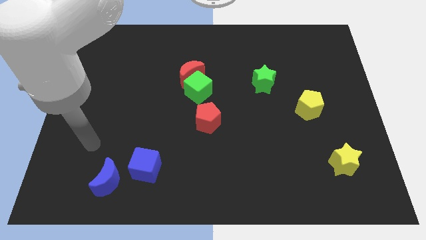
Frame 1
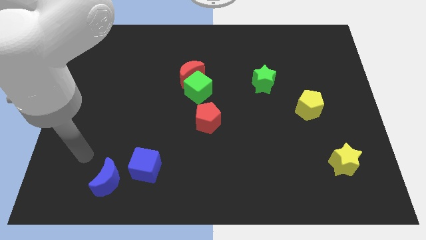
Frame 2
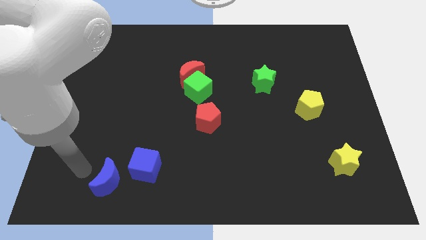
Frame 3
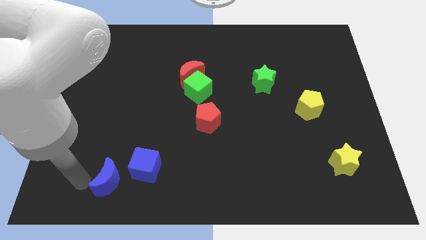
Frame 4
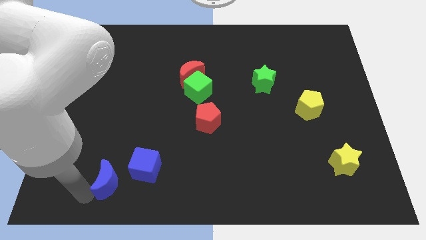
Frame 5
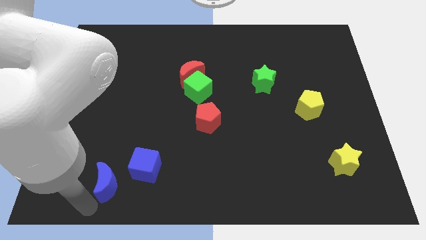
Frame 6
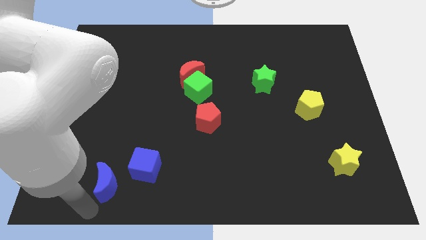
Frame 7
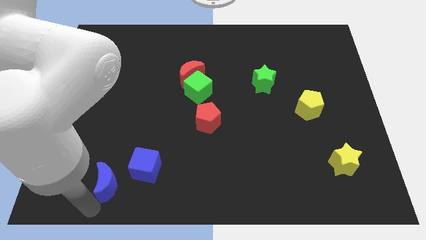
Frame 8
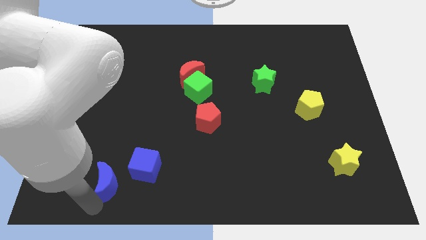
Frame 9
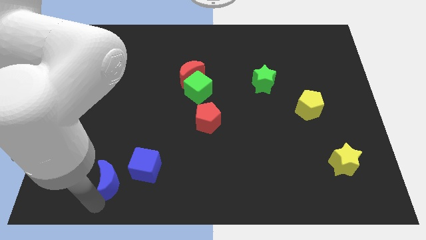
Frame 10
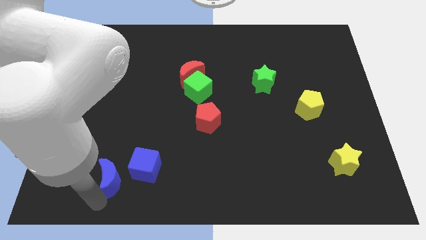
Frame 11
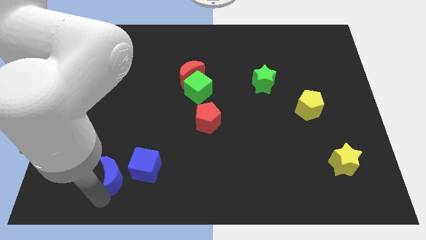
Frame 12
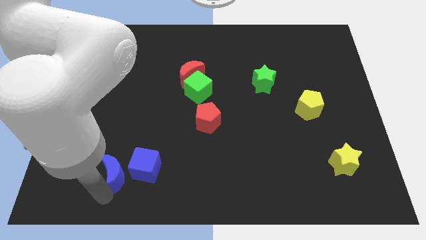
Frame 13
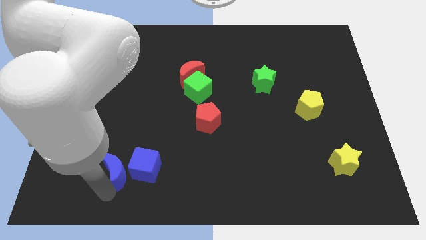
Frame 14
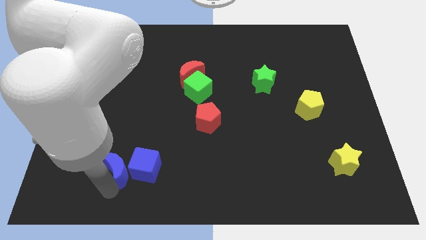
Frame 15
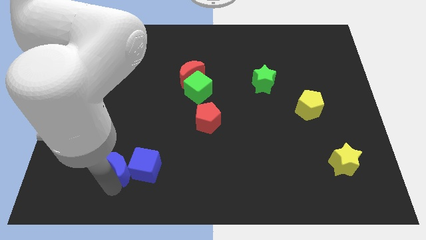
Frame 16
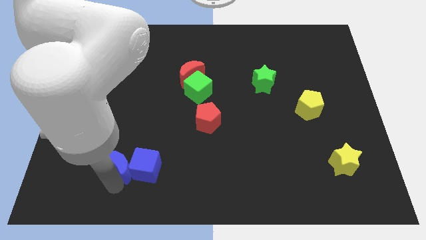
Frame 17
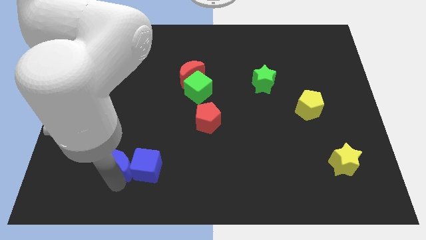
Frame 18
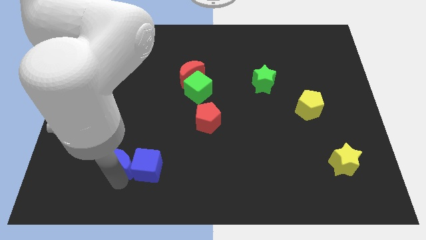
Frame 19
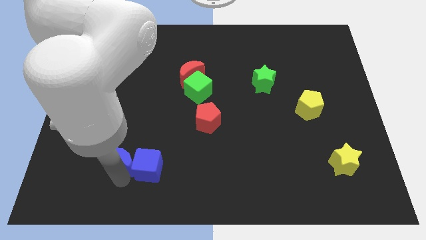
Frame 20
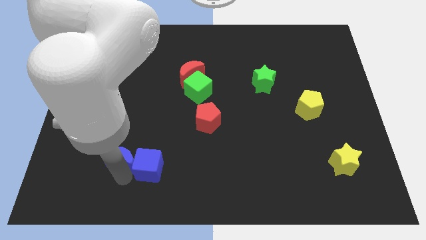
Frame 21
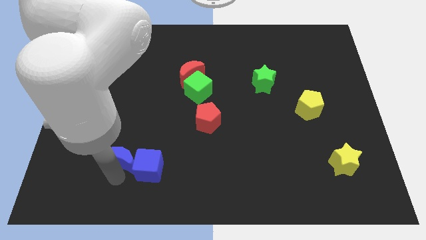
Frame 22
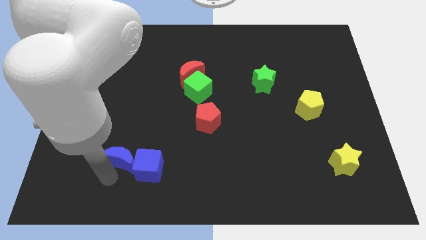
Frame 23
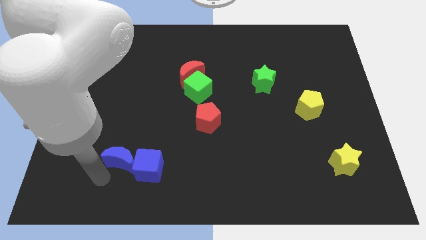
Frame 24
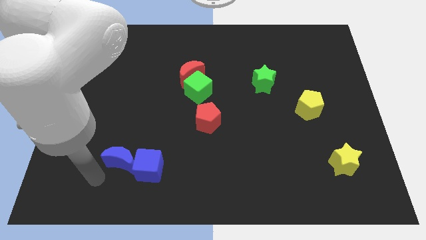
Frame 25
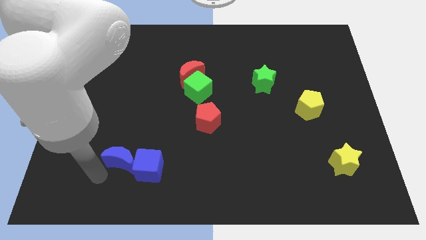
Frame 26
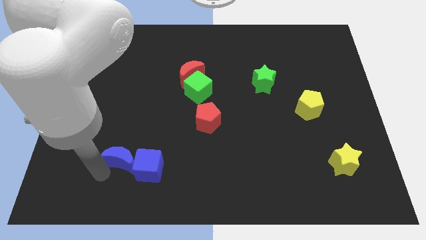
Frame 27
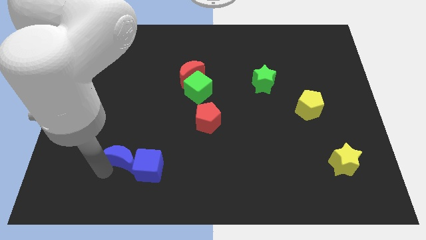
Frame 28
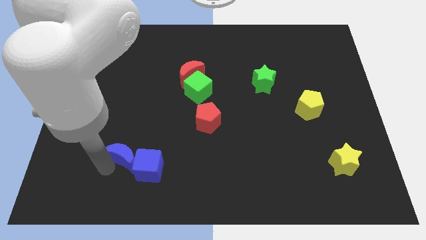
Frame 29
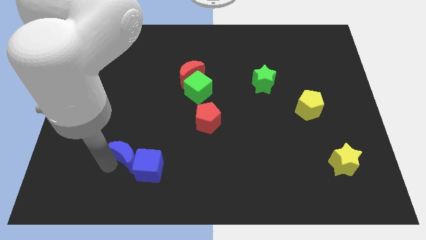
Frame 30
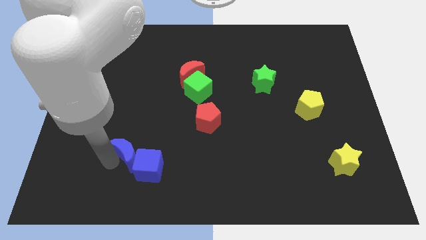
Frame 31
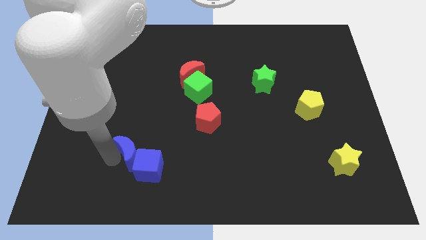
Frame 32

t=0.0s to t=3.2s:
slightly push the blue moon diagonally upwards and to the right

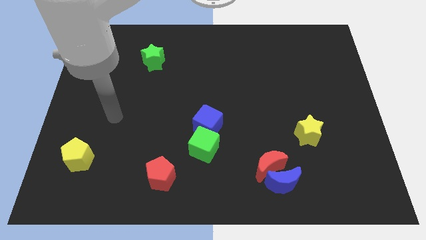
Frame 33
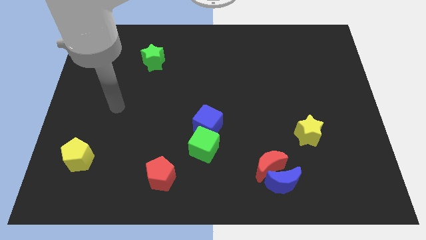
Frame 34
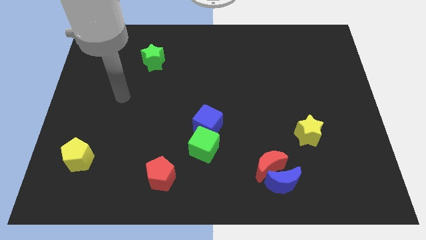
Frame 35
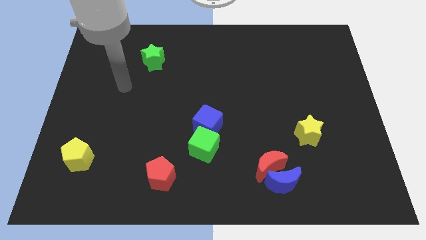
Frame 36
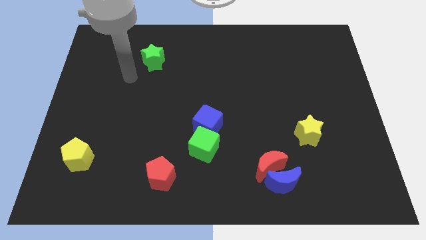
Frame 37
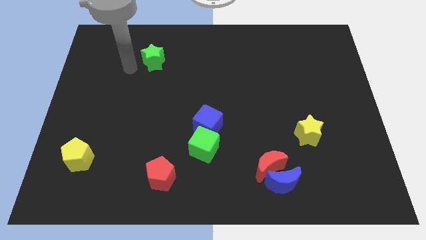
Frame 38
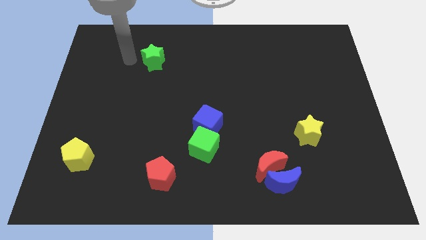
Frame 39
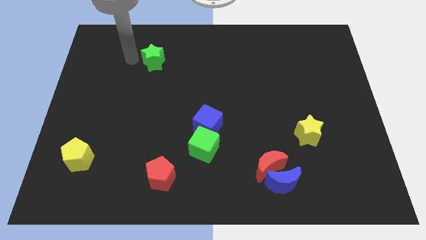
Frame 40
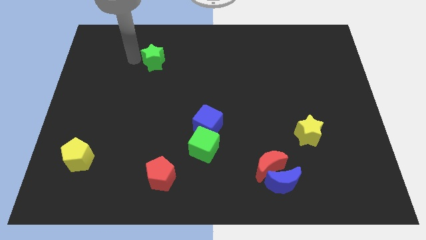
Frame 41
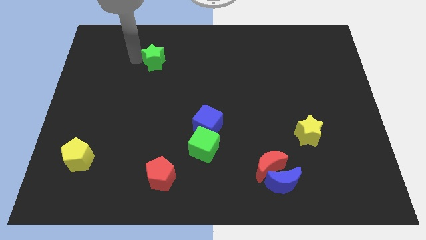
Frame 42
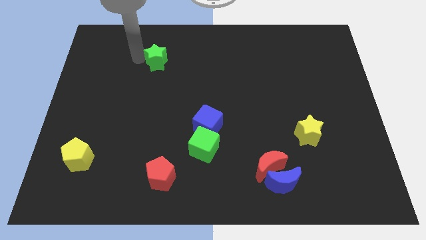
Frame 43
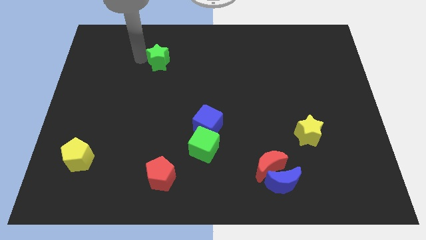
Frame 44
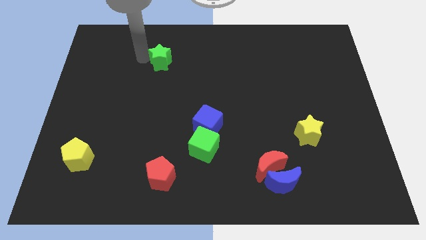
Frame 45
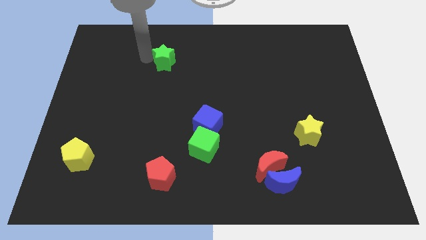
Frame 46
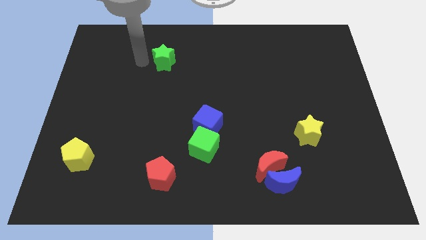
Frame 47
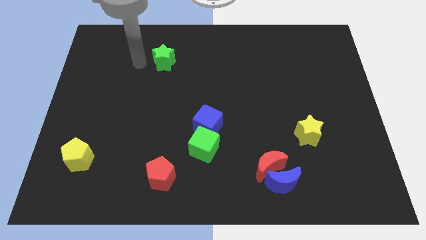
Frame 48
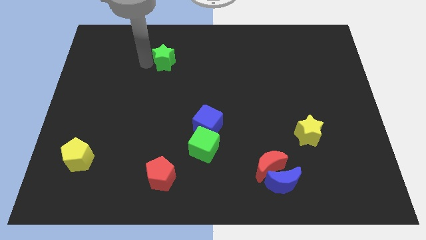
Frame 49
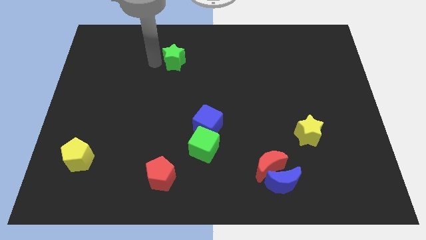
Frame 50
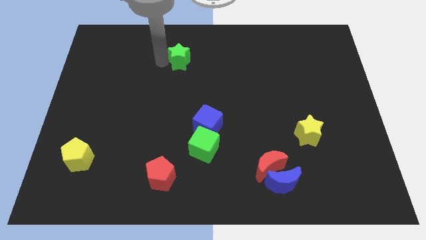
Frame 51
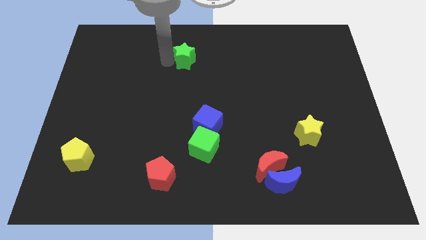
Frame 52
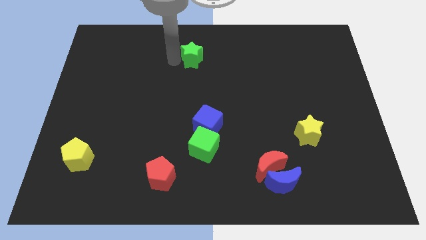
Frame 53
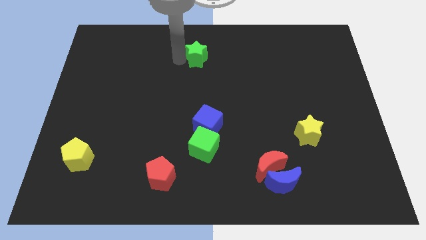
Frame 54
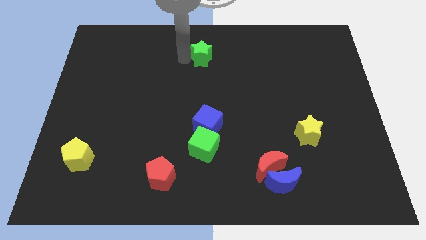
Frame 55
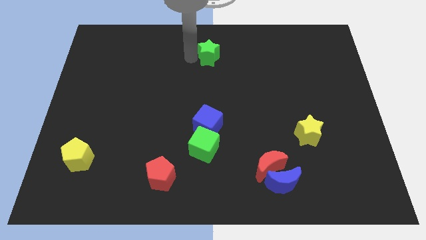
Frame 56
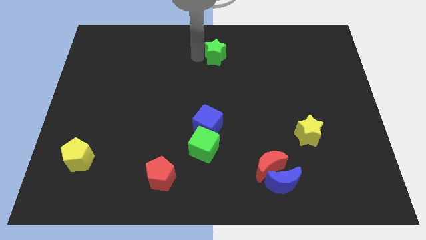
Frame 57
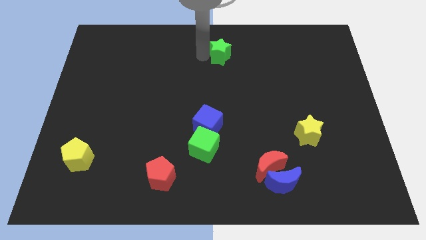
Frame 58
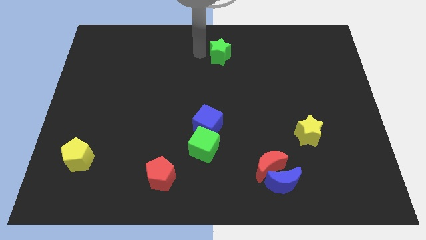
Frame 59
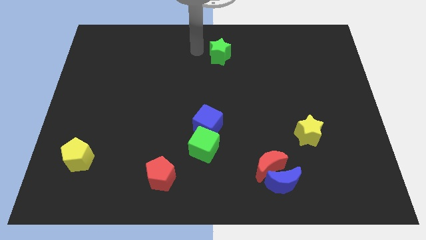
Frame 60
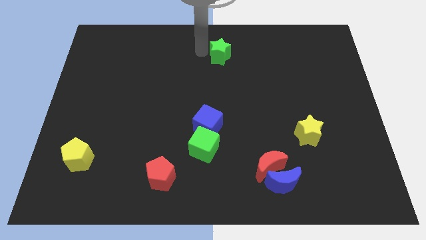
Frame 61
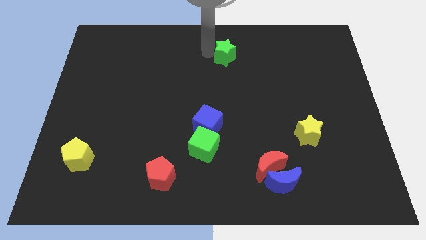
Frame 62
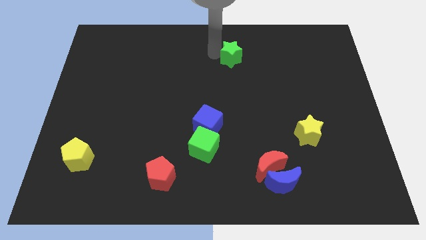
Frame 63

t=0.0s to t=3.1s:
slide the green star to the right

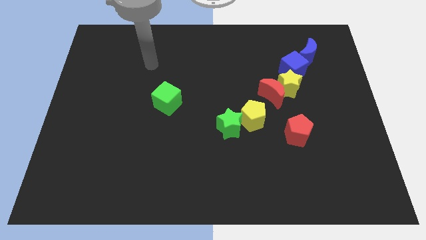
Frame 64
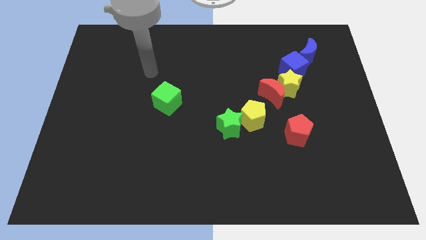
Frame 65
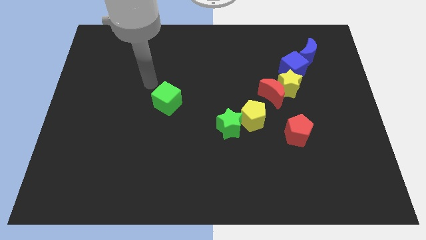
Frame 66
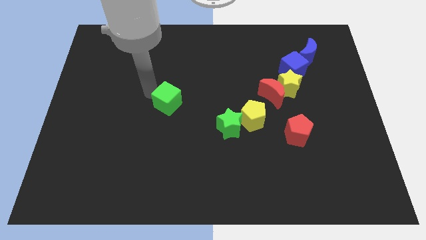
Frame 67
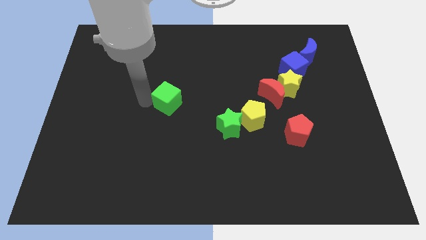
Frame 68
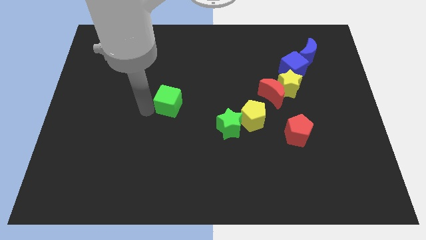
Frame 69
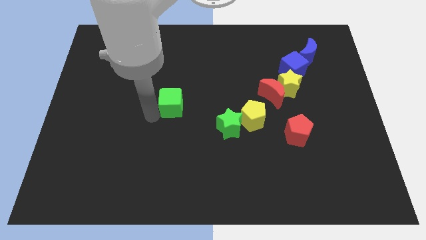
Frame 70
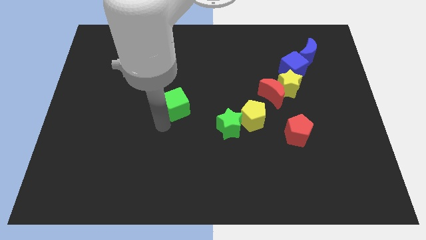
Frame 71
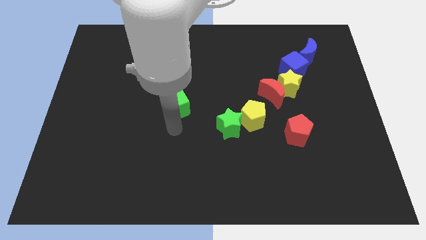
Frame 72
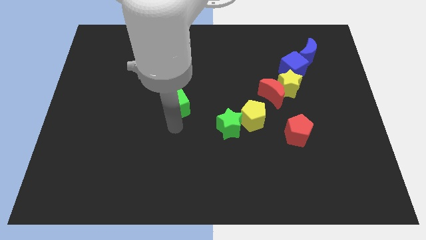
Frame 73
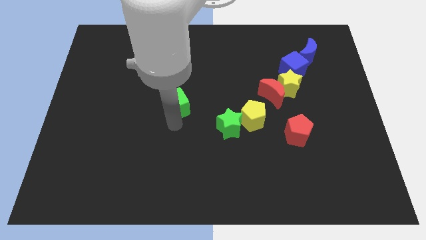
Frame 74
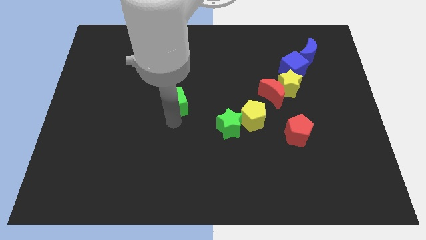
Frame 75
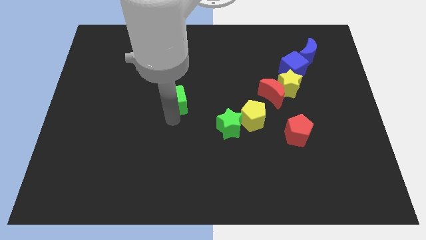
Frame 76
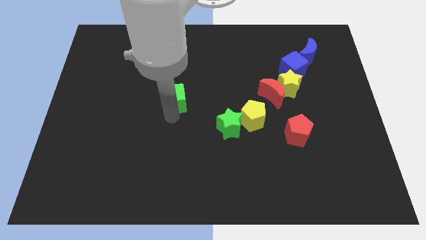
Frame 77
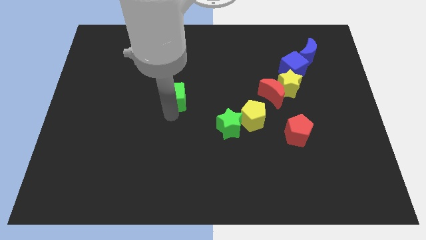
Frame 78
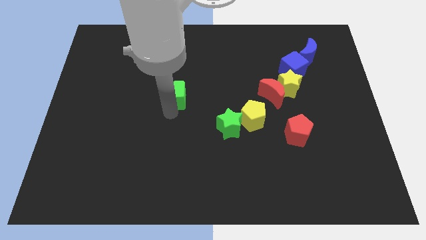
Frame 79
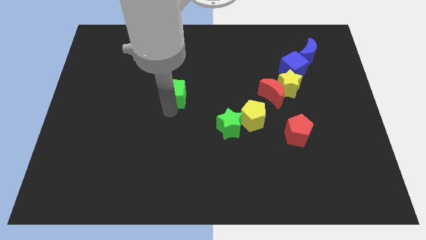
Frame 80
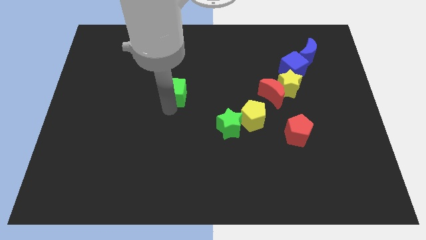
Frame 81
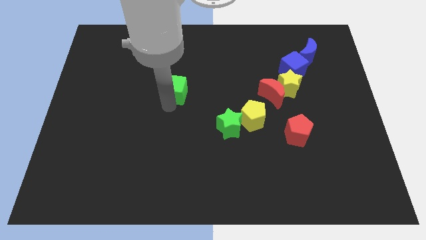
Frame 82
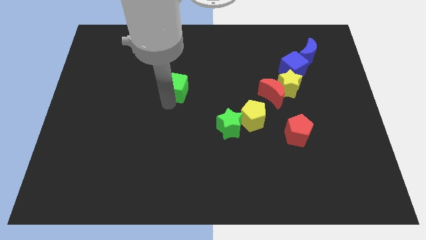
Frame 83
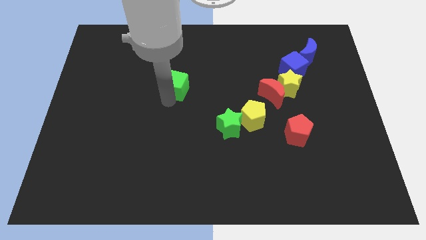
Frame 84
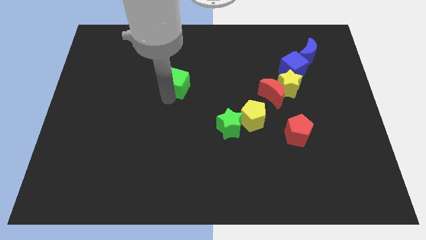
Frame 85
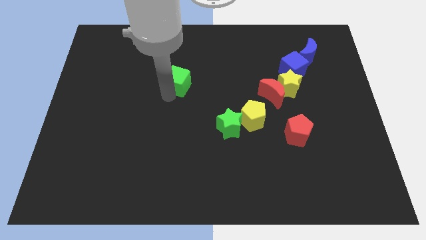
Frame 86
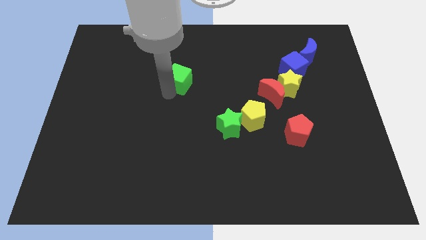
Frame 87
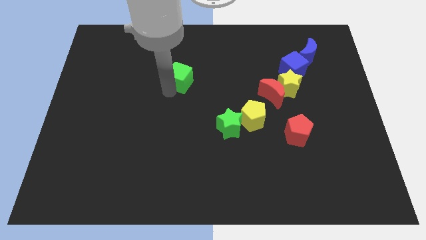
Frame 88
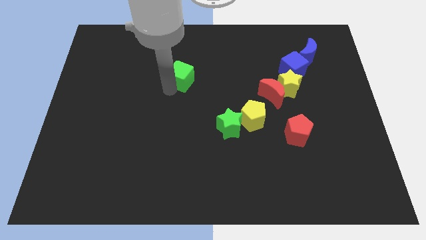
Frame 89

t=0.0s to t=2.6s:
slide the green cube somewhat diagonally up and to the right
